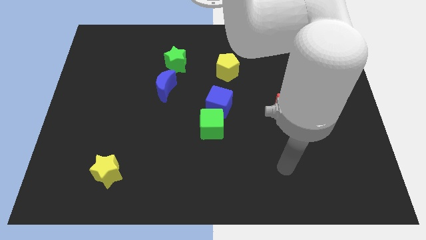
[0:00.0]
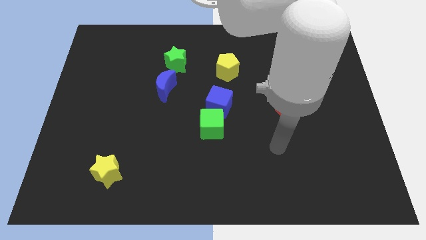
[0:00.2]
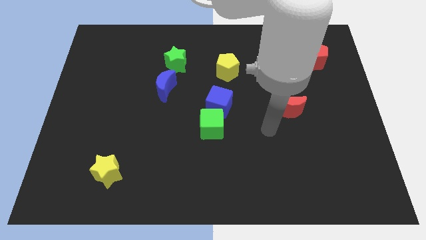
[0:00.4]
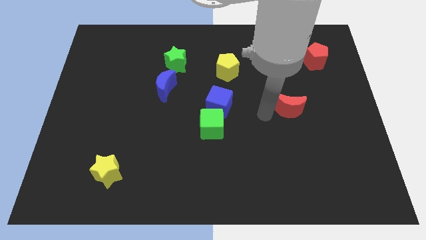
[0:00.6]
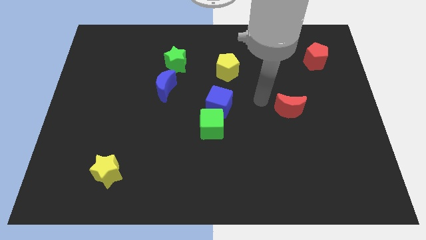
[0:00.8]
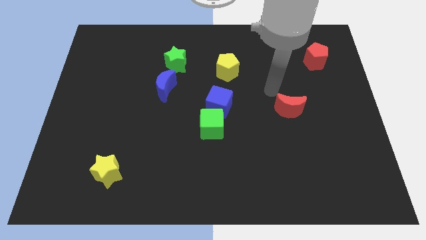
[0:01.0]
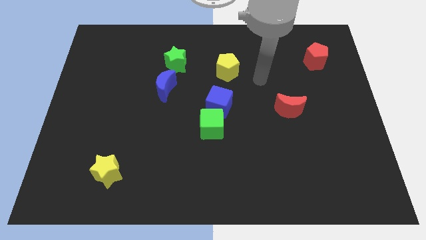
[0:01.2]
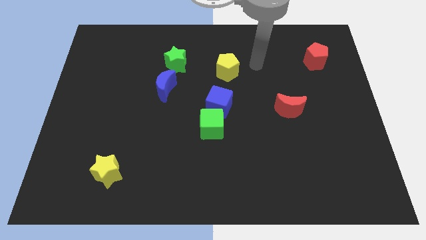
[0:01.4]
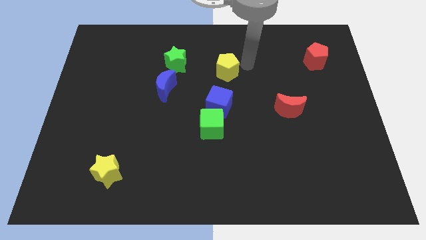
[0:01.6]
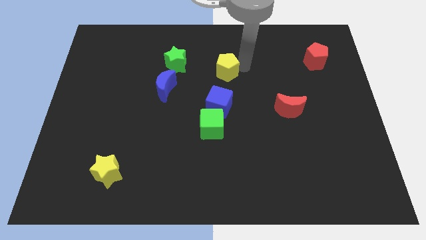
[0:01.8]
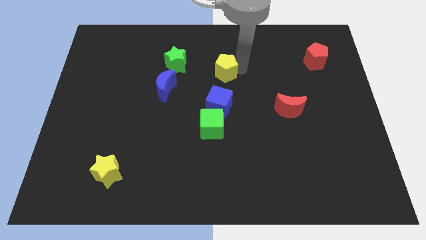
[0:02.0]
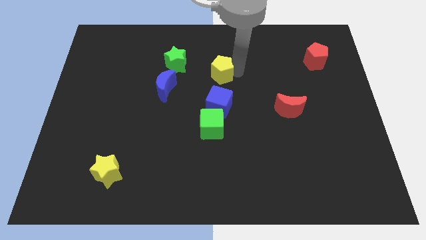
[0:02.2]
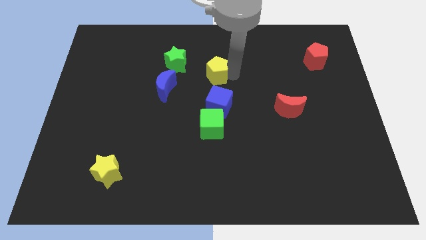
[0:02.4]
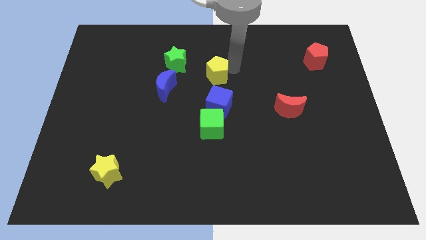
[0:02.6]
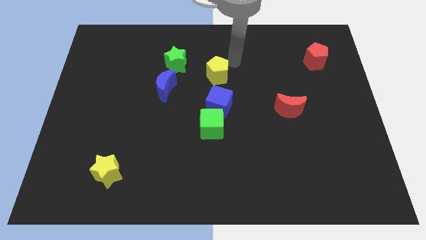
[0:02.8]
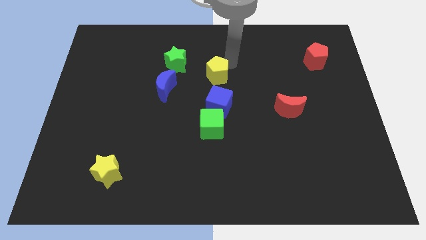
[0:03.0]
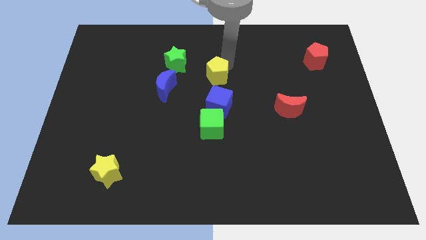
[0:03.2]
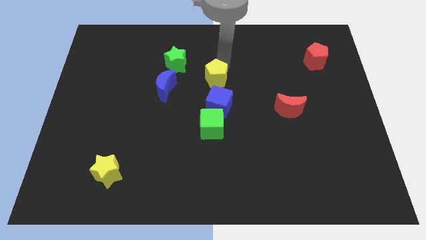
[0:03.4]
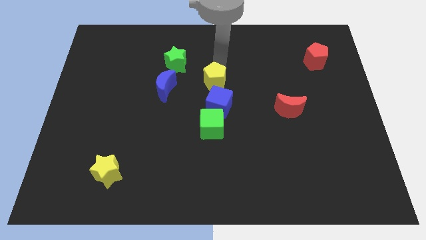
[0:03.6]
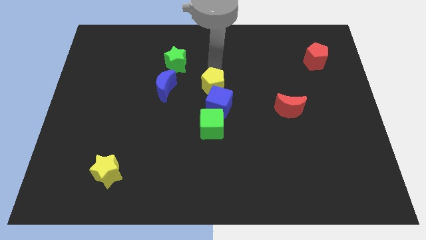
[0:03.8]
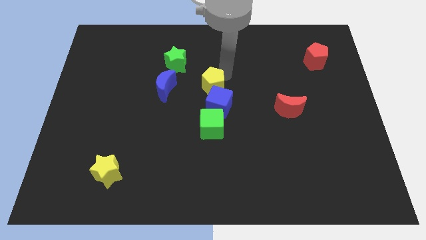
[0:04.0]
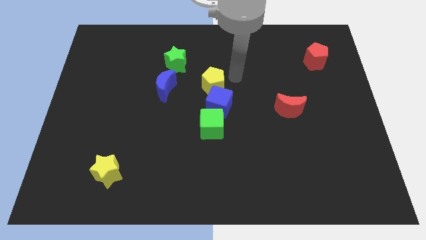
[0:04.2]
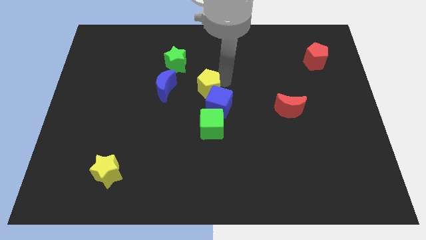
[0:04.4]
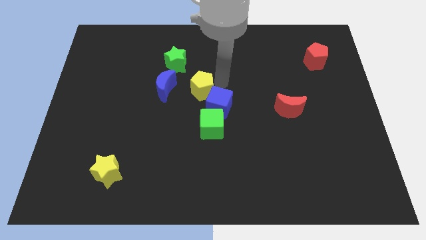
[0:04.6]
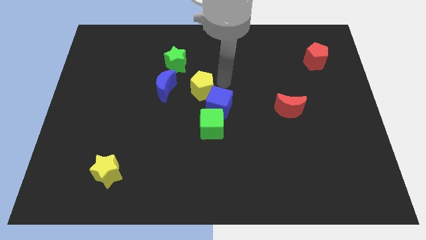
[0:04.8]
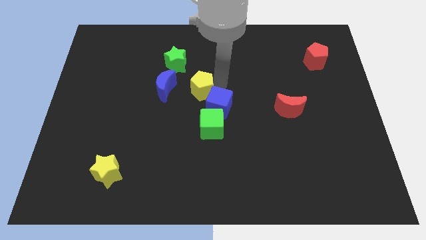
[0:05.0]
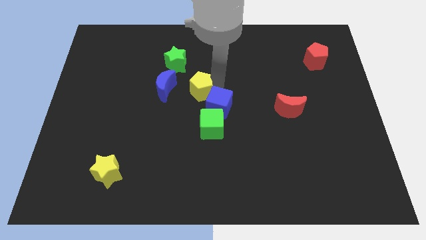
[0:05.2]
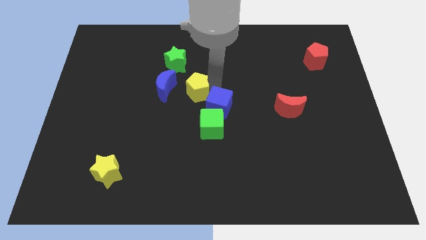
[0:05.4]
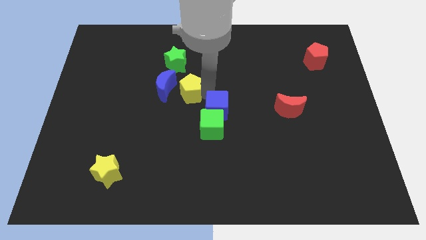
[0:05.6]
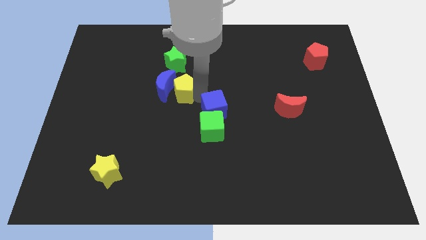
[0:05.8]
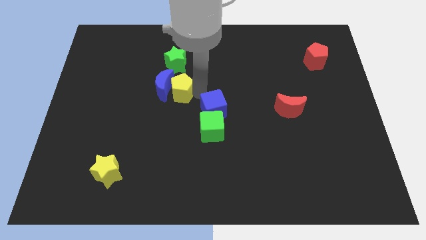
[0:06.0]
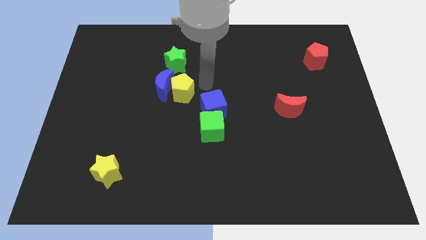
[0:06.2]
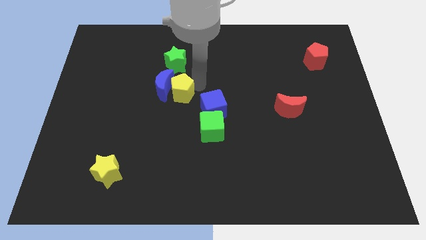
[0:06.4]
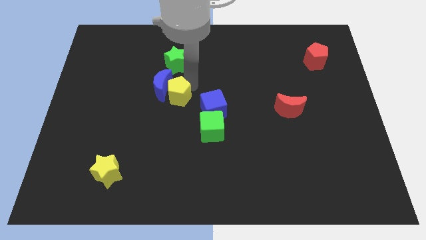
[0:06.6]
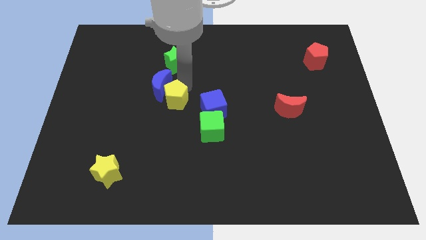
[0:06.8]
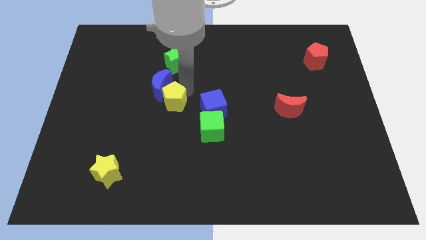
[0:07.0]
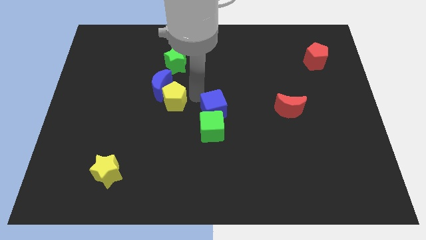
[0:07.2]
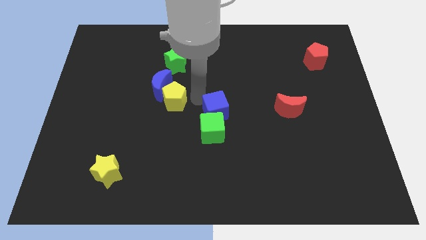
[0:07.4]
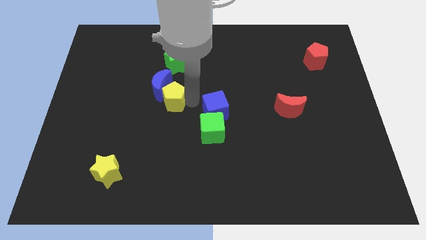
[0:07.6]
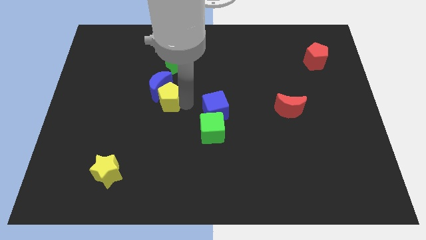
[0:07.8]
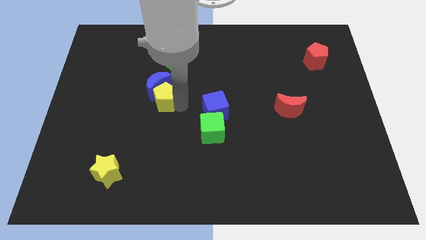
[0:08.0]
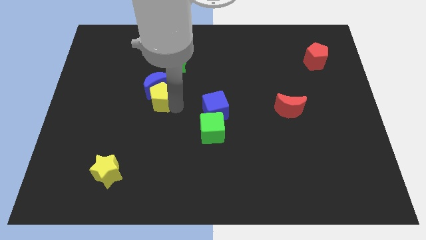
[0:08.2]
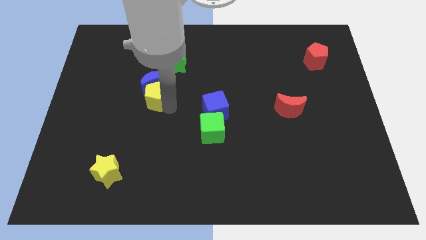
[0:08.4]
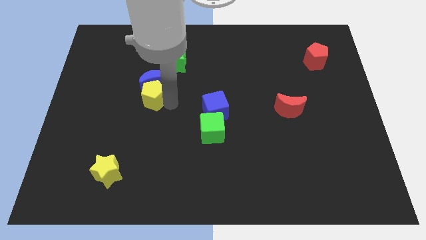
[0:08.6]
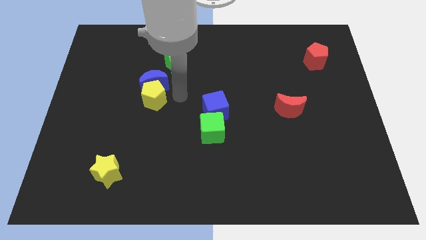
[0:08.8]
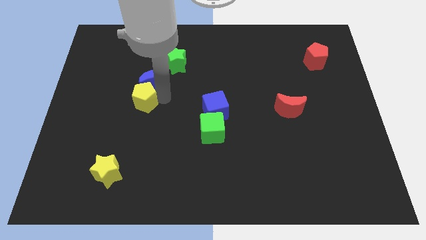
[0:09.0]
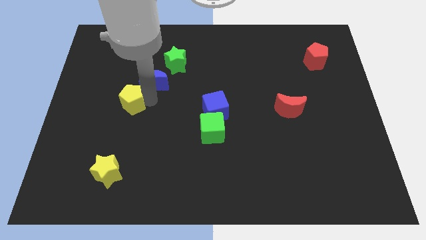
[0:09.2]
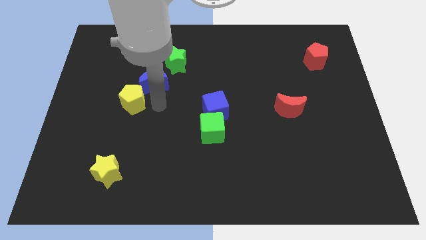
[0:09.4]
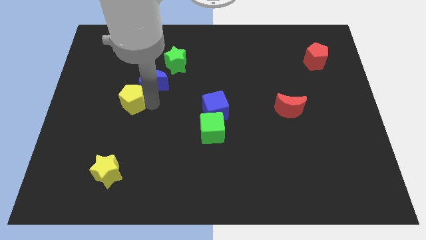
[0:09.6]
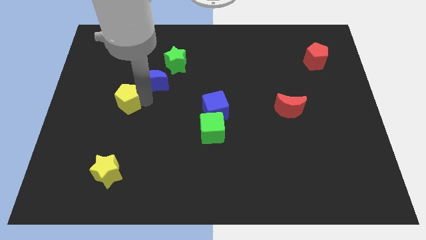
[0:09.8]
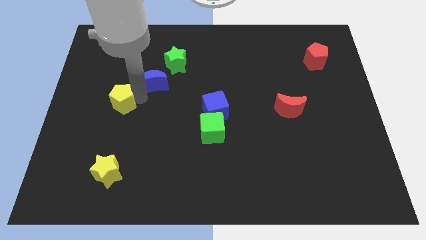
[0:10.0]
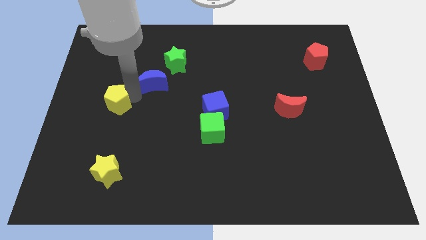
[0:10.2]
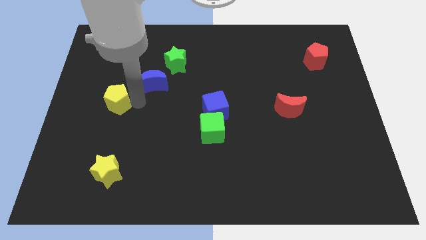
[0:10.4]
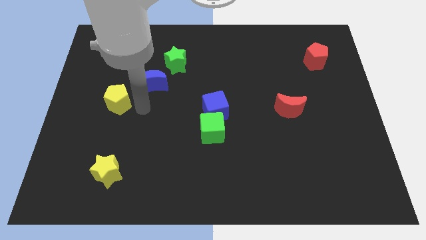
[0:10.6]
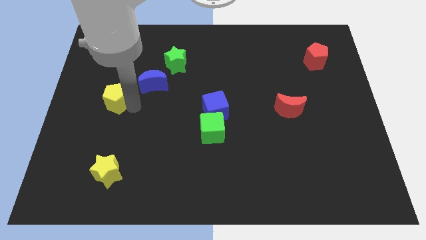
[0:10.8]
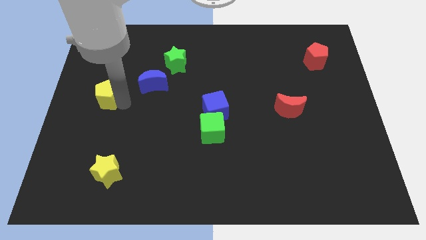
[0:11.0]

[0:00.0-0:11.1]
put the yellow pentagon to the left side of the board

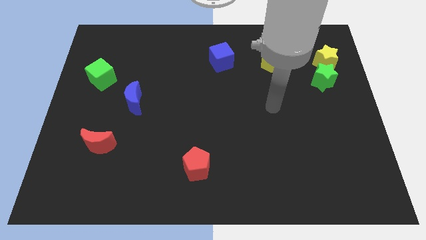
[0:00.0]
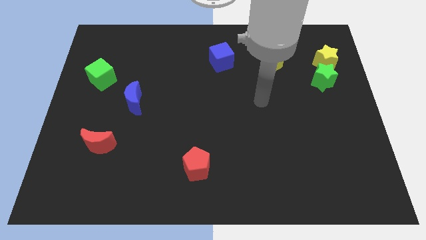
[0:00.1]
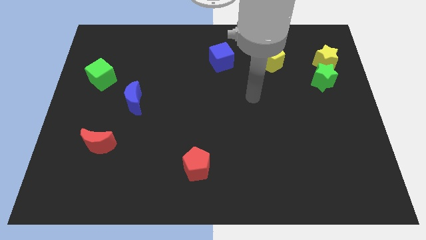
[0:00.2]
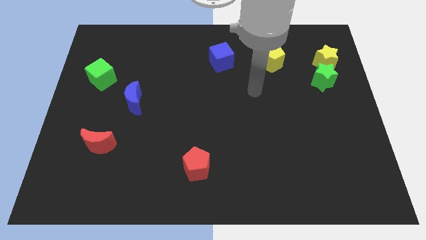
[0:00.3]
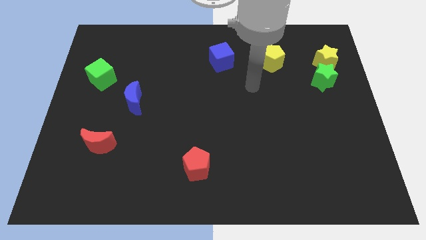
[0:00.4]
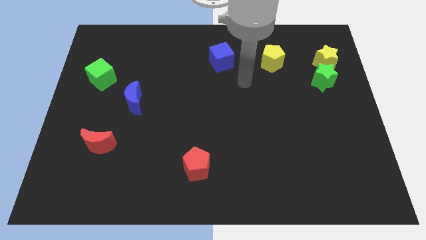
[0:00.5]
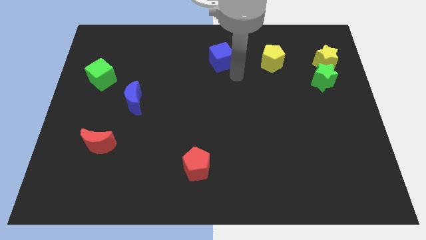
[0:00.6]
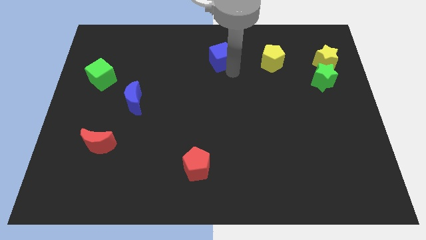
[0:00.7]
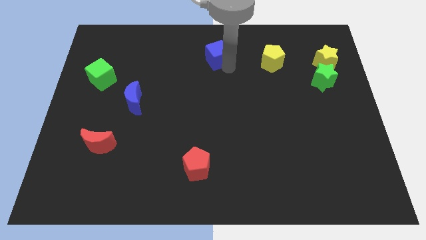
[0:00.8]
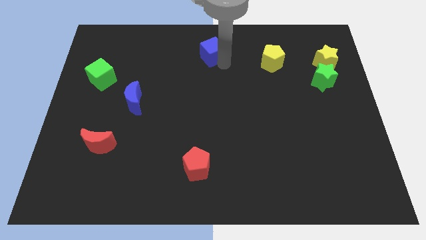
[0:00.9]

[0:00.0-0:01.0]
put the blue cube to the towards your base
